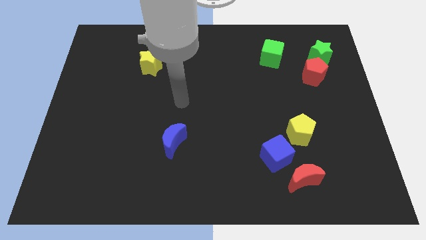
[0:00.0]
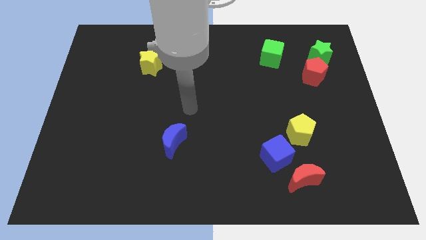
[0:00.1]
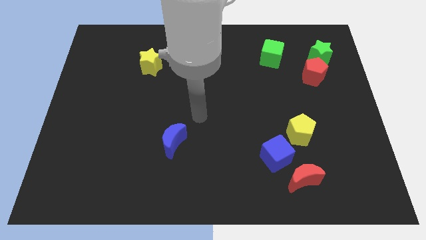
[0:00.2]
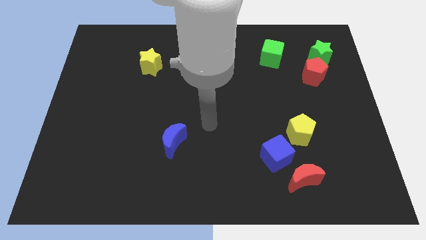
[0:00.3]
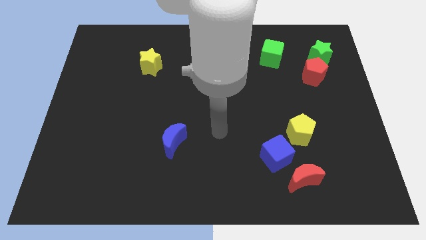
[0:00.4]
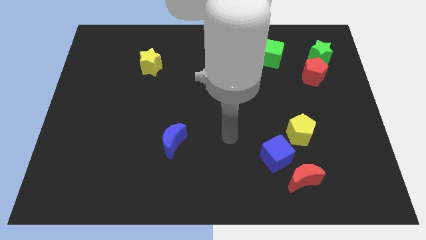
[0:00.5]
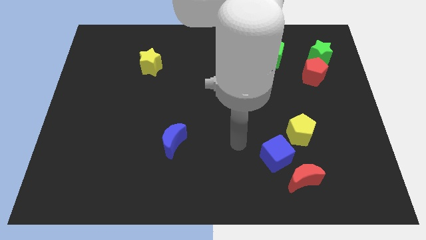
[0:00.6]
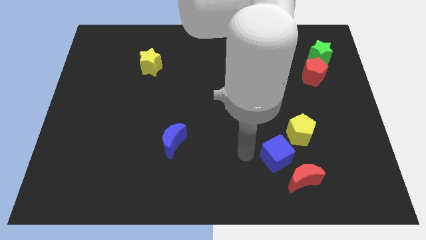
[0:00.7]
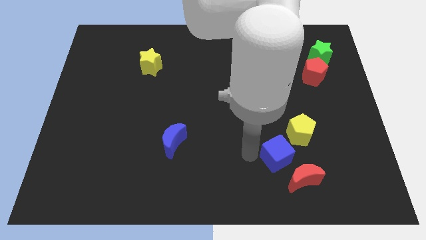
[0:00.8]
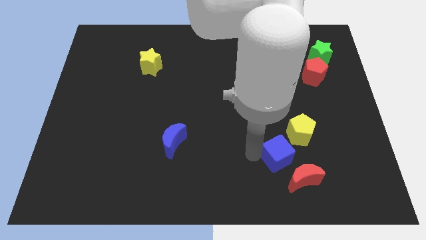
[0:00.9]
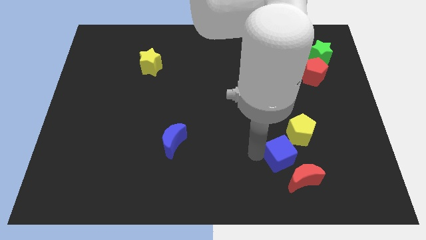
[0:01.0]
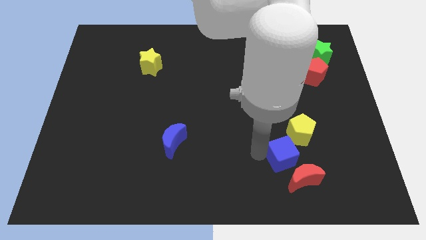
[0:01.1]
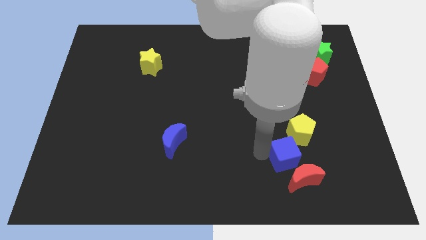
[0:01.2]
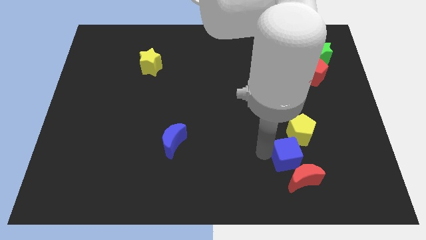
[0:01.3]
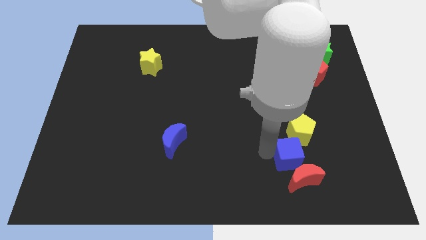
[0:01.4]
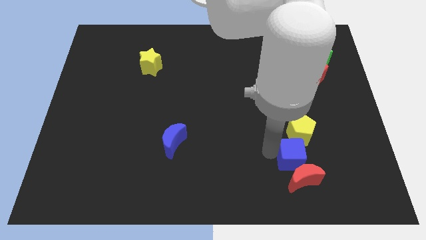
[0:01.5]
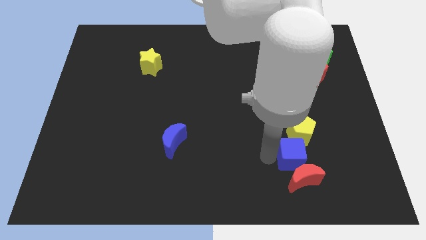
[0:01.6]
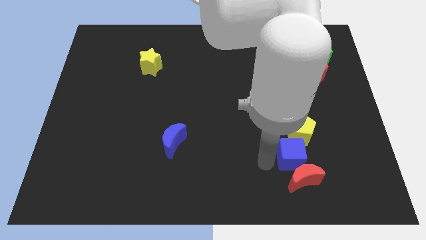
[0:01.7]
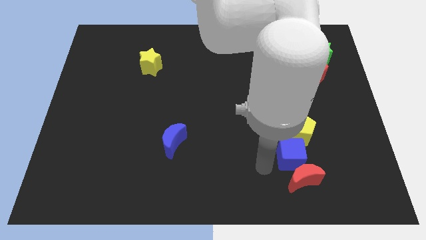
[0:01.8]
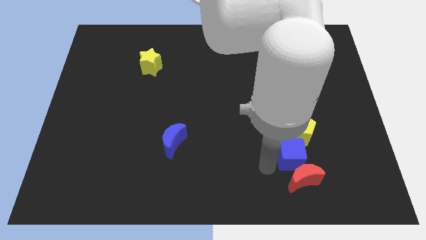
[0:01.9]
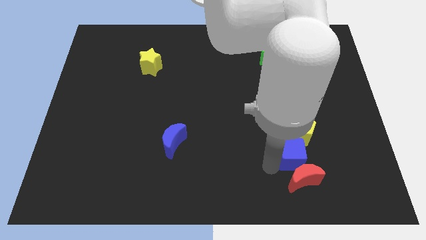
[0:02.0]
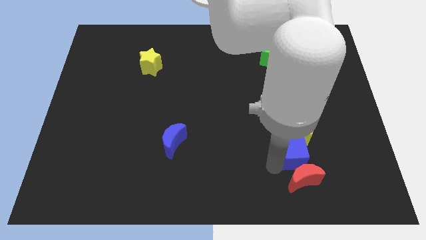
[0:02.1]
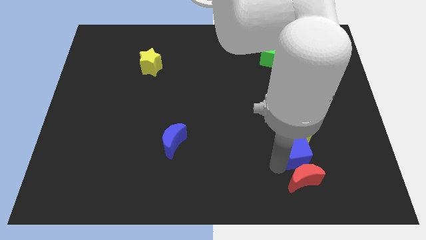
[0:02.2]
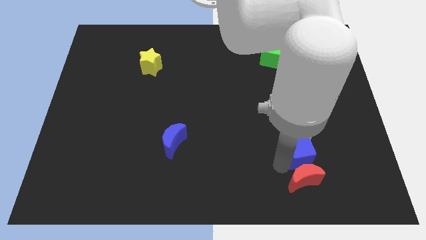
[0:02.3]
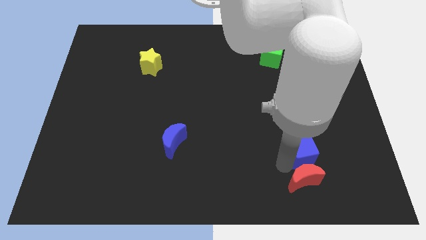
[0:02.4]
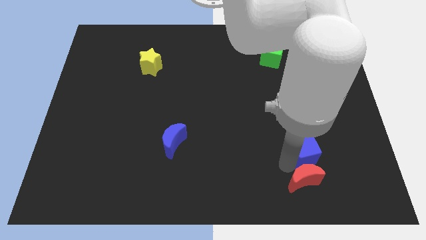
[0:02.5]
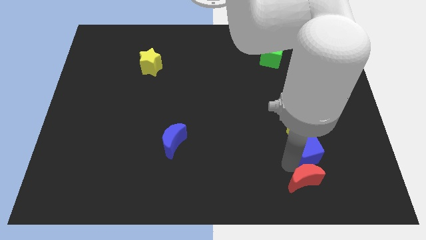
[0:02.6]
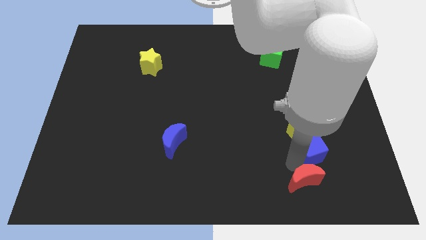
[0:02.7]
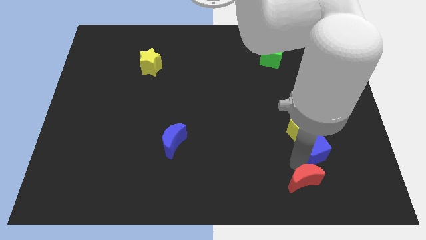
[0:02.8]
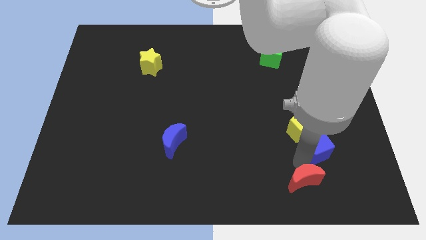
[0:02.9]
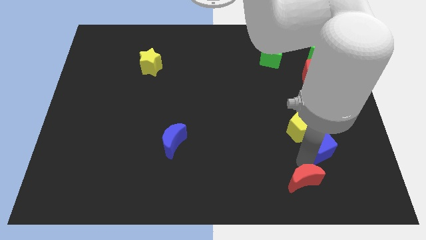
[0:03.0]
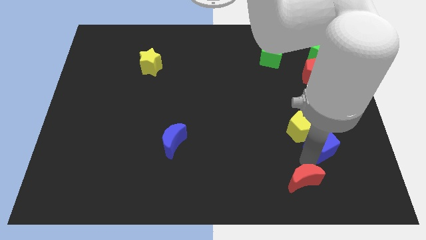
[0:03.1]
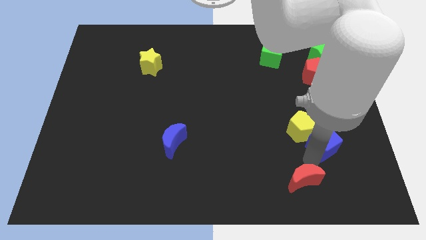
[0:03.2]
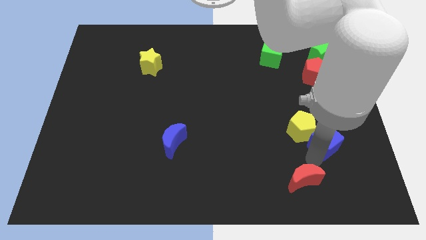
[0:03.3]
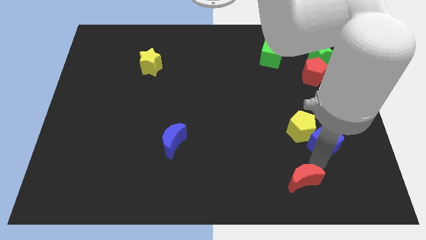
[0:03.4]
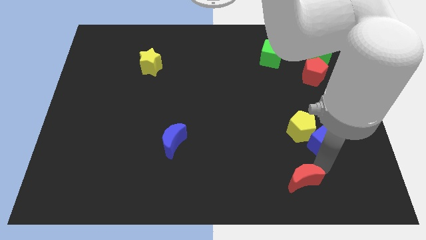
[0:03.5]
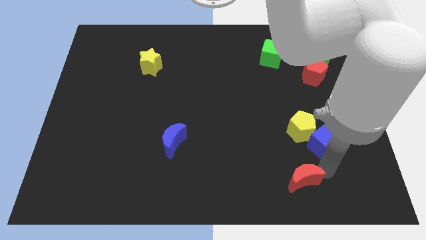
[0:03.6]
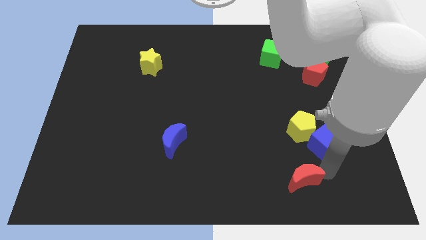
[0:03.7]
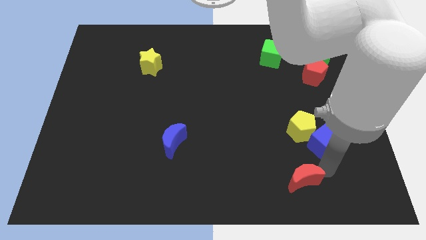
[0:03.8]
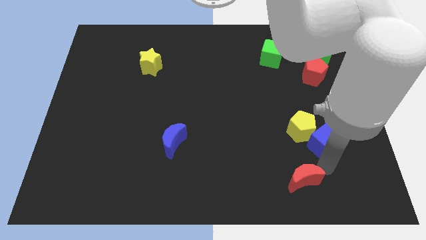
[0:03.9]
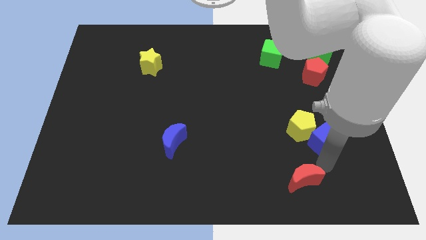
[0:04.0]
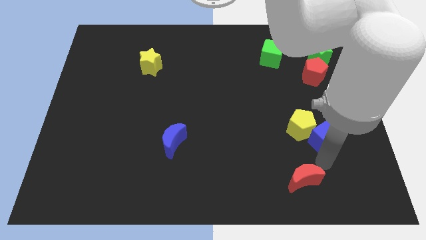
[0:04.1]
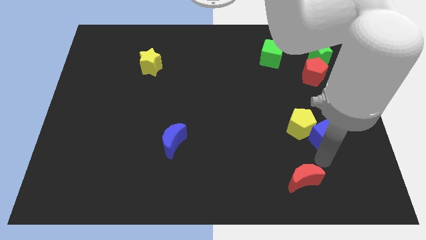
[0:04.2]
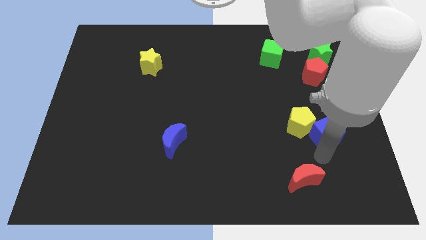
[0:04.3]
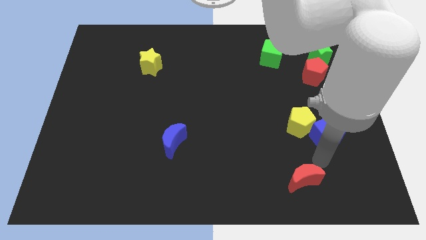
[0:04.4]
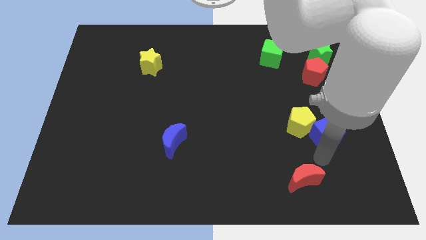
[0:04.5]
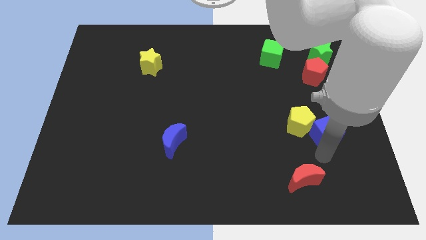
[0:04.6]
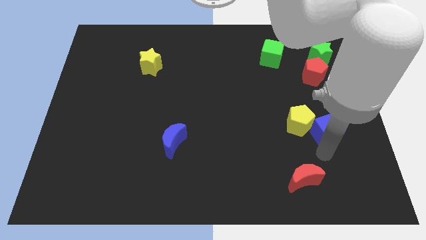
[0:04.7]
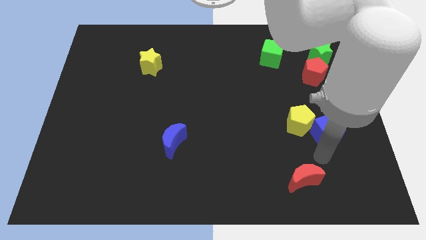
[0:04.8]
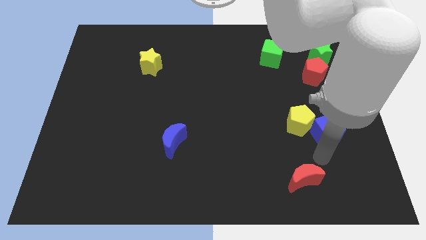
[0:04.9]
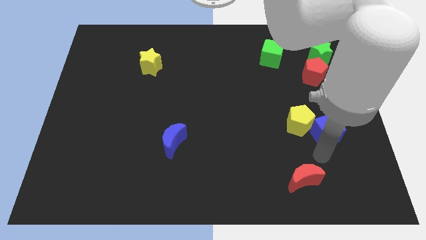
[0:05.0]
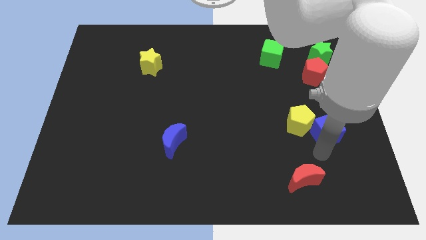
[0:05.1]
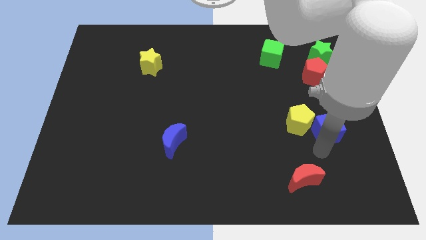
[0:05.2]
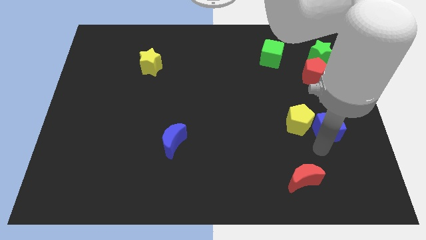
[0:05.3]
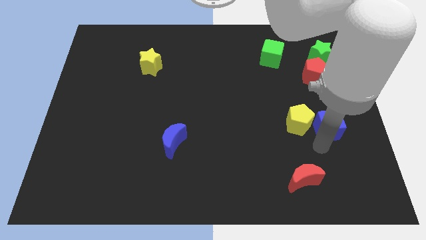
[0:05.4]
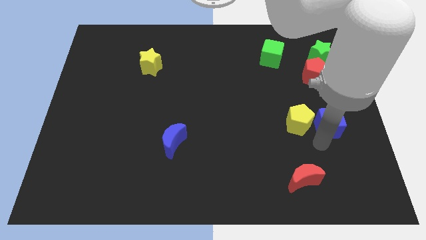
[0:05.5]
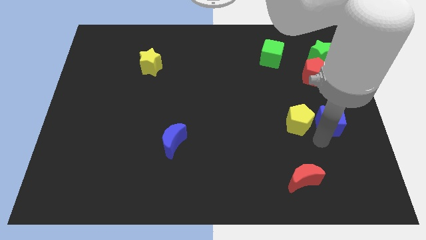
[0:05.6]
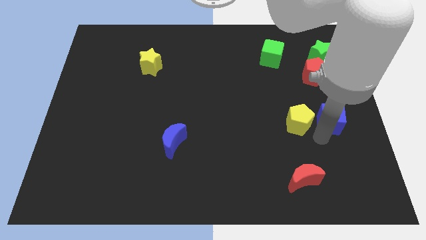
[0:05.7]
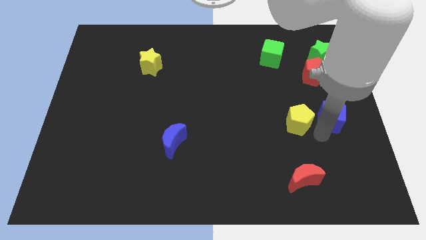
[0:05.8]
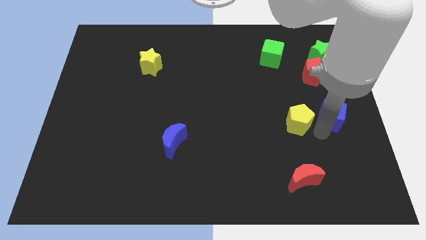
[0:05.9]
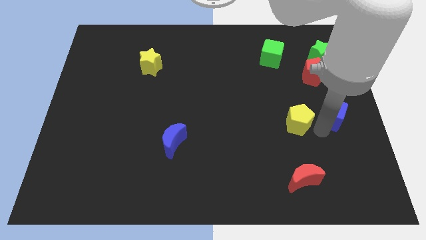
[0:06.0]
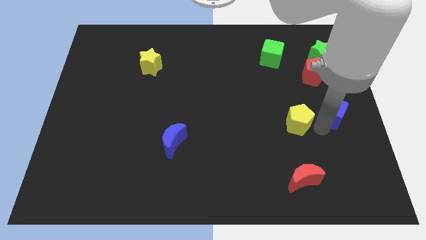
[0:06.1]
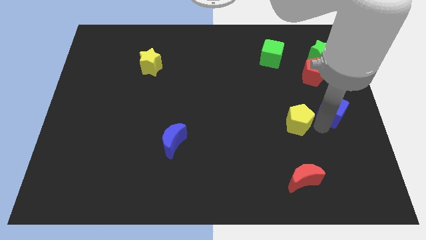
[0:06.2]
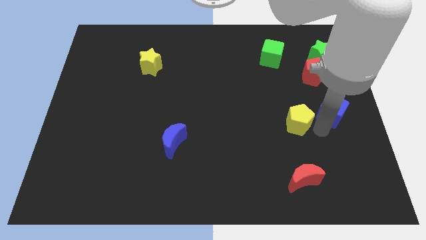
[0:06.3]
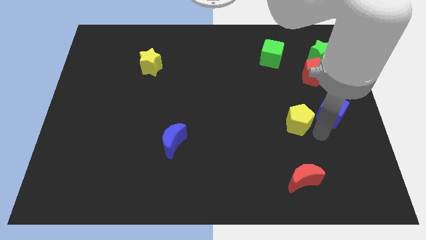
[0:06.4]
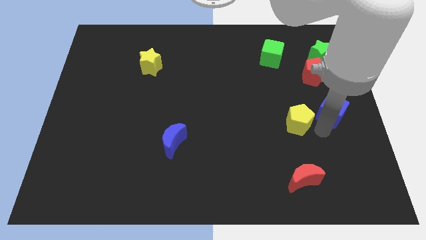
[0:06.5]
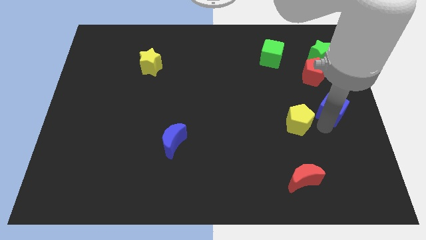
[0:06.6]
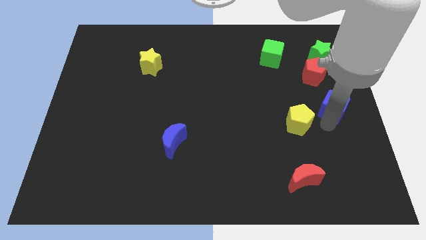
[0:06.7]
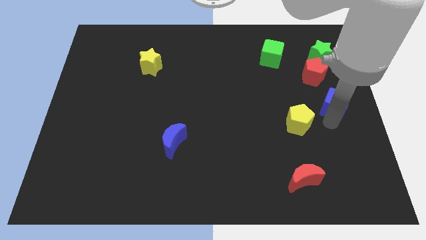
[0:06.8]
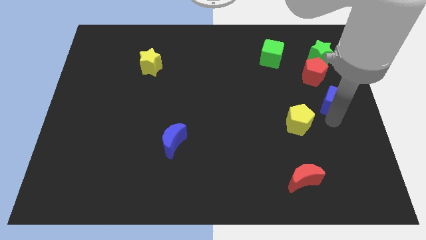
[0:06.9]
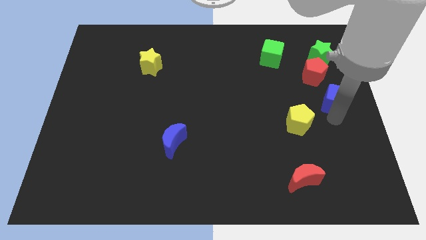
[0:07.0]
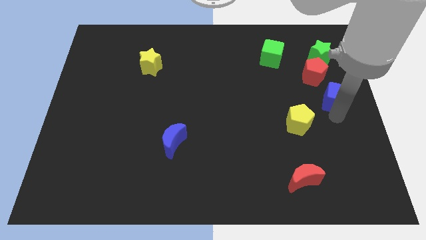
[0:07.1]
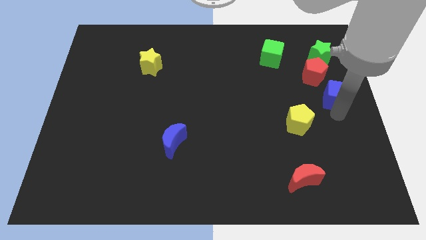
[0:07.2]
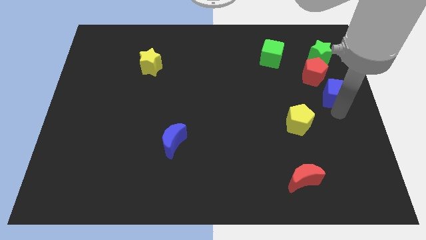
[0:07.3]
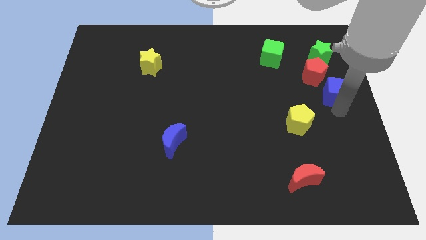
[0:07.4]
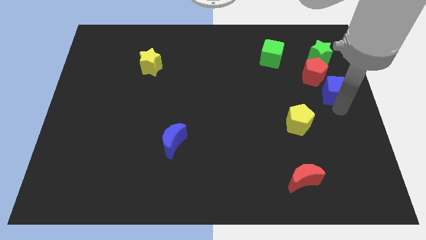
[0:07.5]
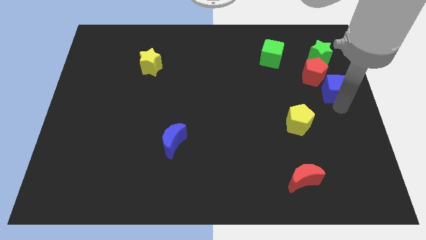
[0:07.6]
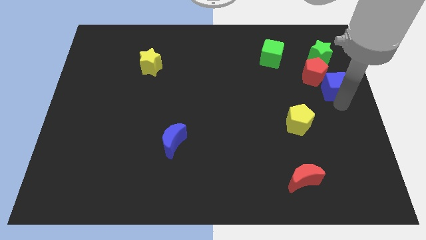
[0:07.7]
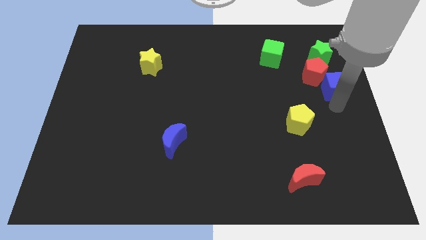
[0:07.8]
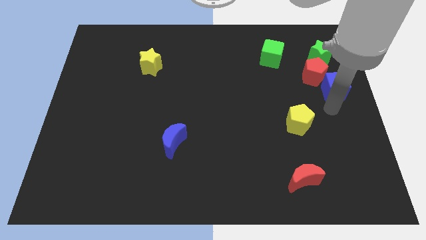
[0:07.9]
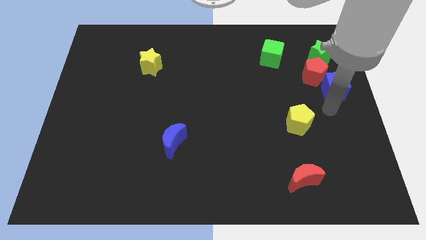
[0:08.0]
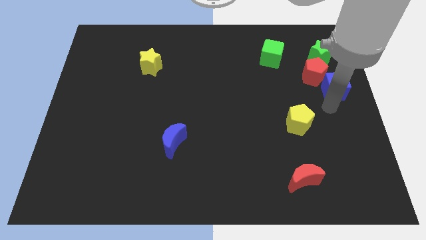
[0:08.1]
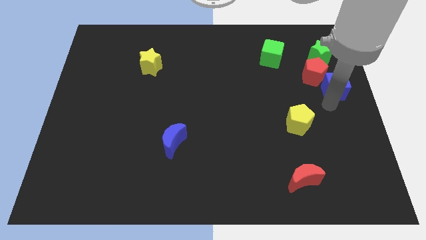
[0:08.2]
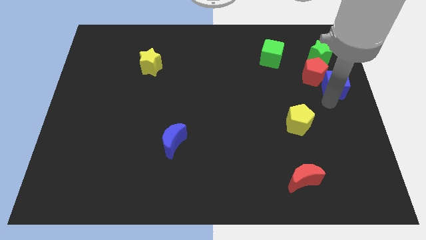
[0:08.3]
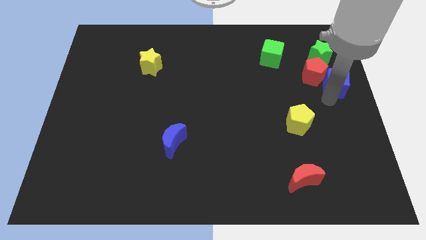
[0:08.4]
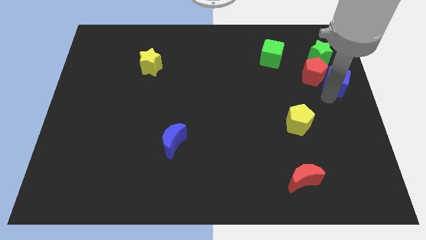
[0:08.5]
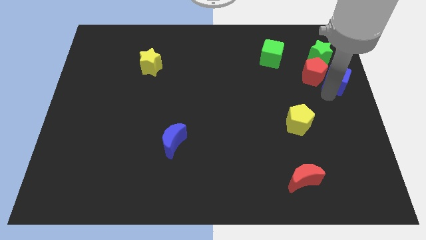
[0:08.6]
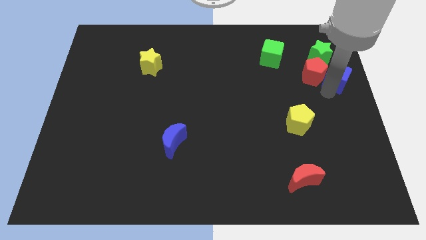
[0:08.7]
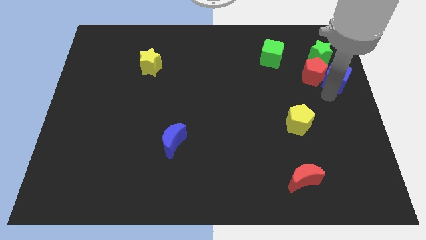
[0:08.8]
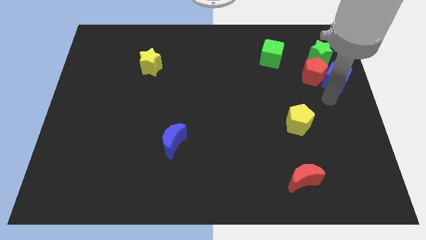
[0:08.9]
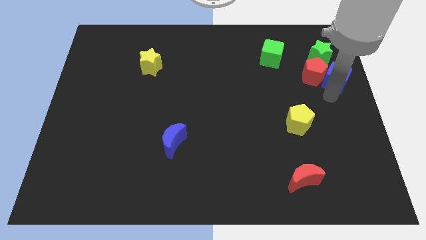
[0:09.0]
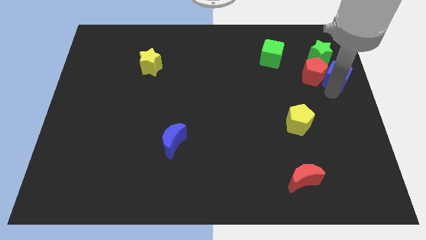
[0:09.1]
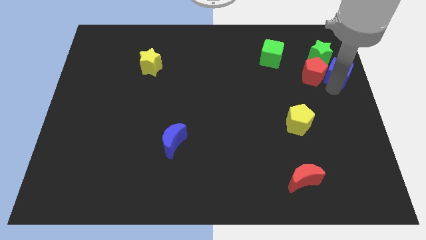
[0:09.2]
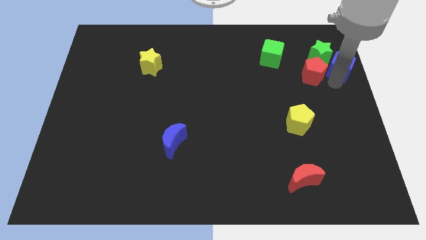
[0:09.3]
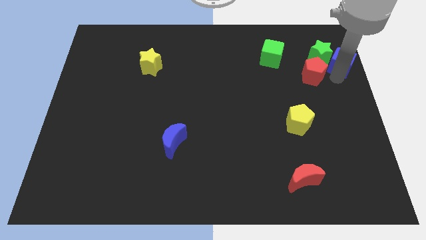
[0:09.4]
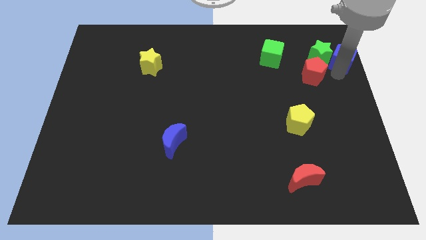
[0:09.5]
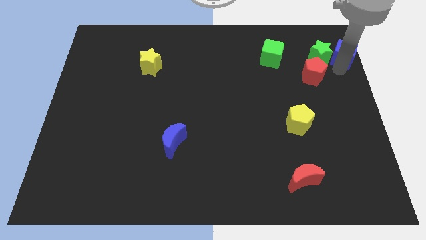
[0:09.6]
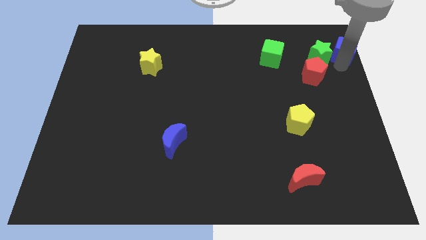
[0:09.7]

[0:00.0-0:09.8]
move the blue cube to the top right corner
